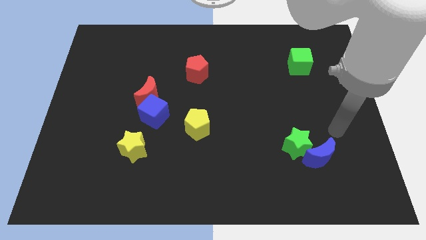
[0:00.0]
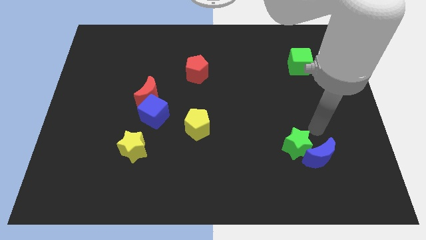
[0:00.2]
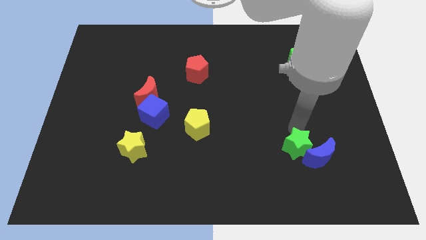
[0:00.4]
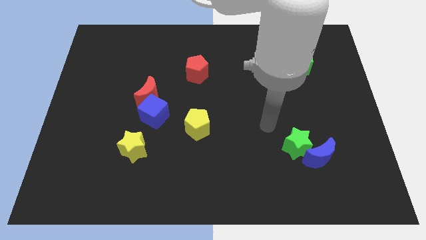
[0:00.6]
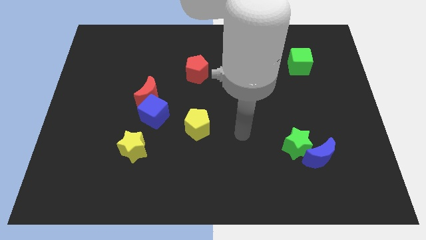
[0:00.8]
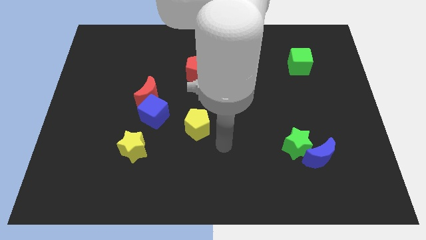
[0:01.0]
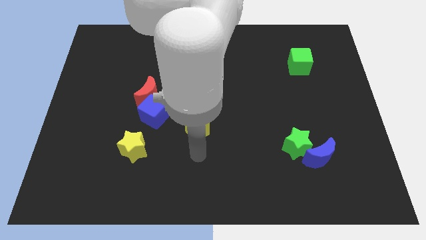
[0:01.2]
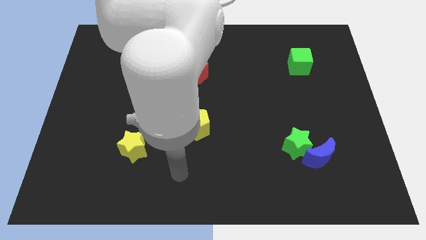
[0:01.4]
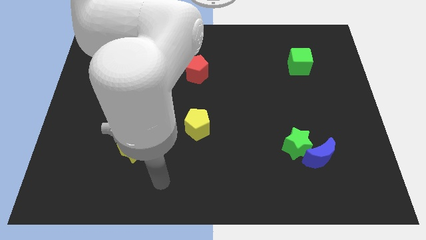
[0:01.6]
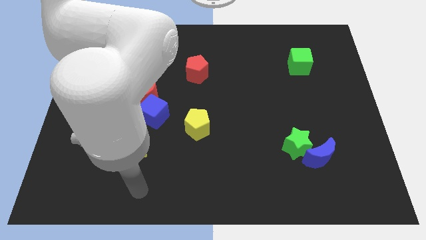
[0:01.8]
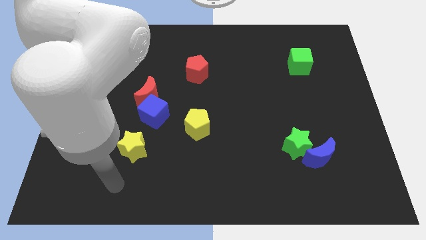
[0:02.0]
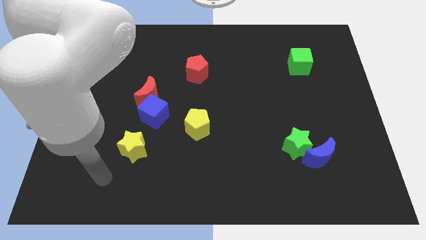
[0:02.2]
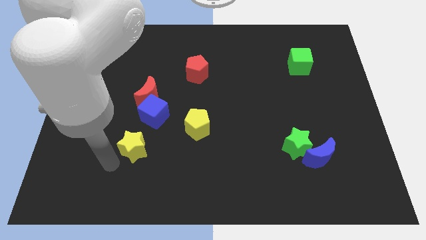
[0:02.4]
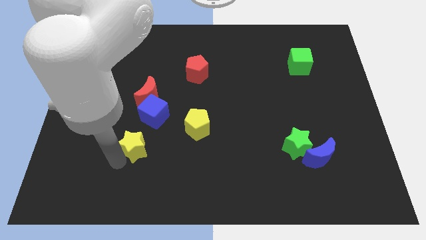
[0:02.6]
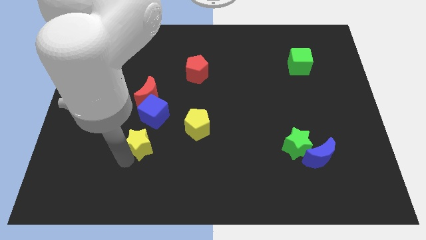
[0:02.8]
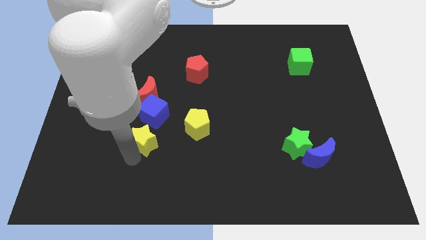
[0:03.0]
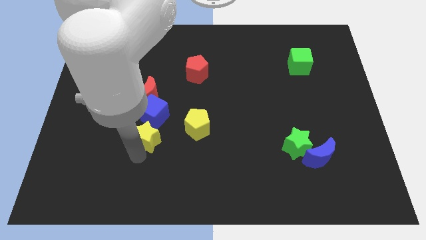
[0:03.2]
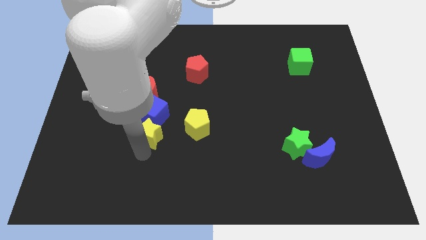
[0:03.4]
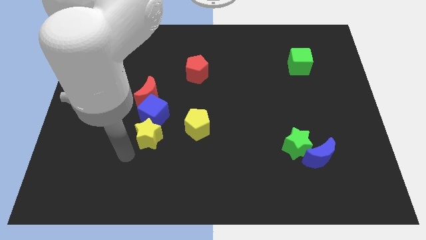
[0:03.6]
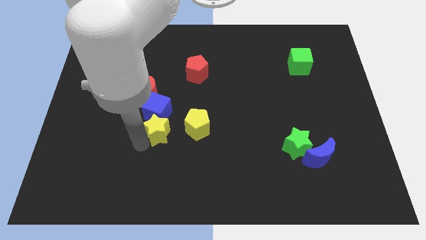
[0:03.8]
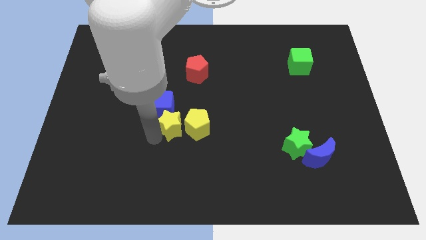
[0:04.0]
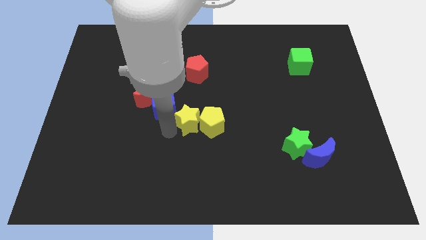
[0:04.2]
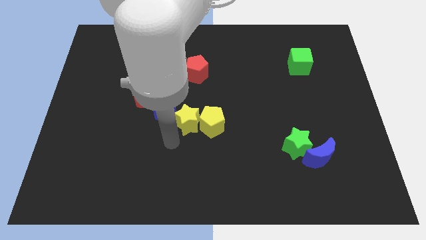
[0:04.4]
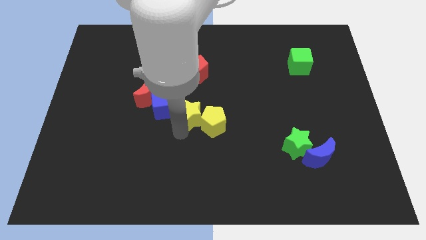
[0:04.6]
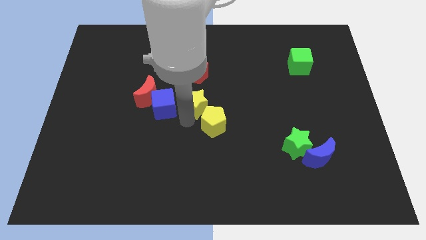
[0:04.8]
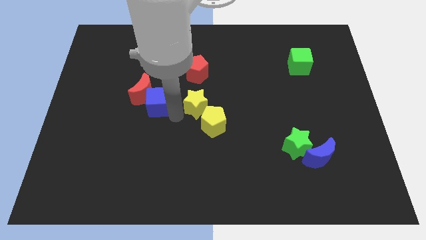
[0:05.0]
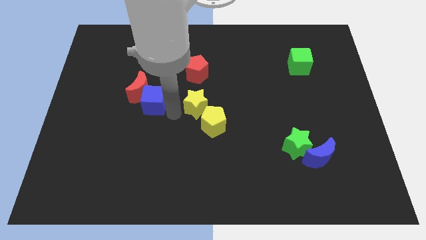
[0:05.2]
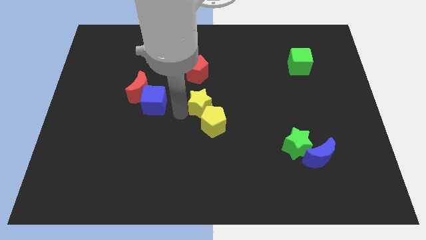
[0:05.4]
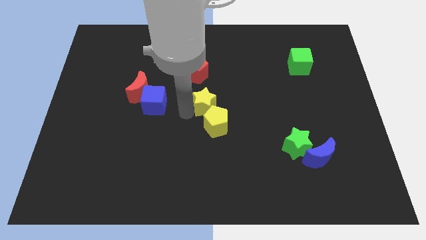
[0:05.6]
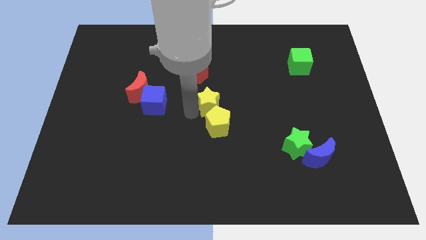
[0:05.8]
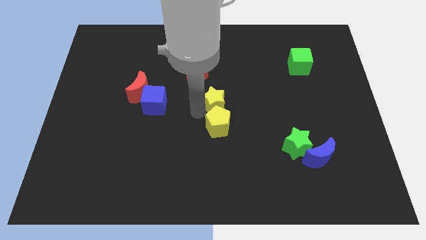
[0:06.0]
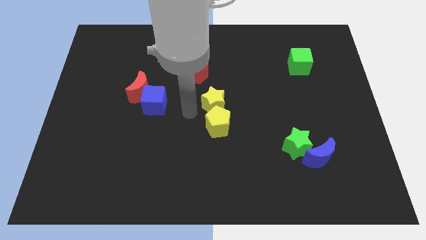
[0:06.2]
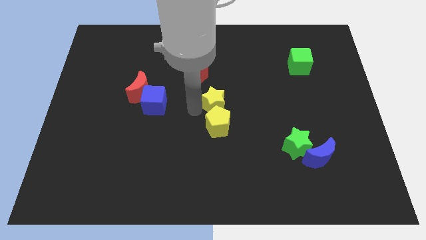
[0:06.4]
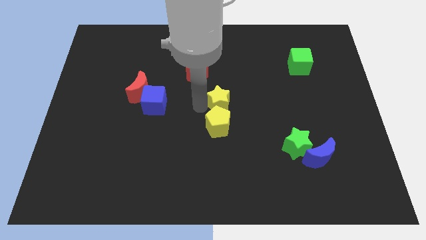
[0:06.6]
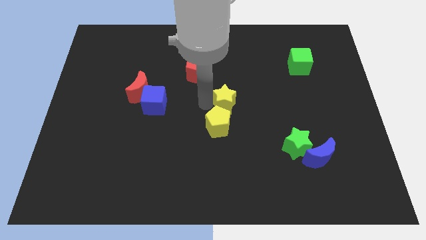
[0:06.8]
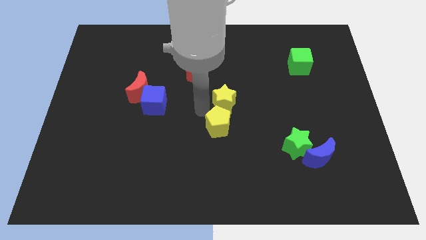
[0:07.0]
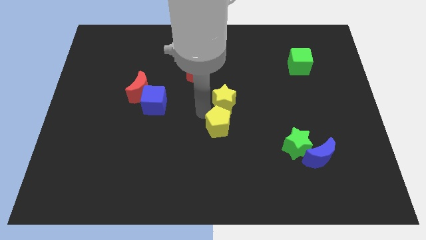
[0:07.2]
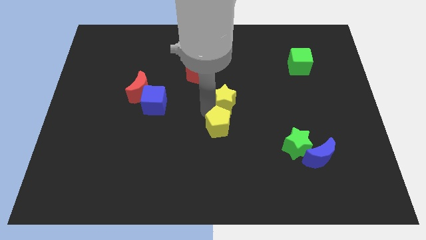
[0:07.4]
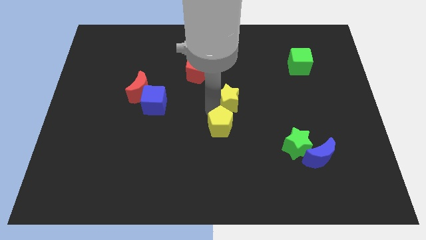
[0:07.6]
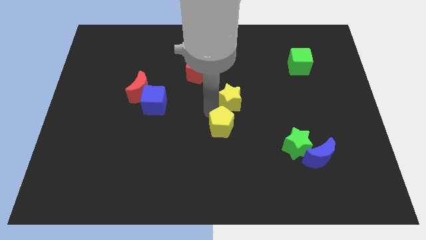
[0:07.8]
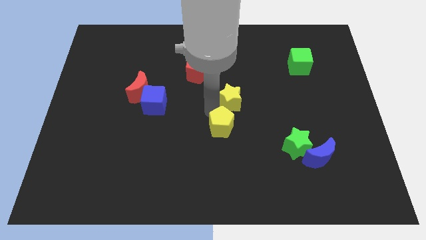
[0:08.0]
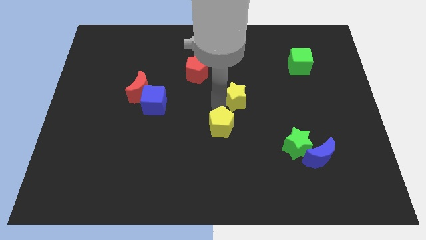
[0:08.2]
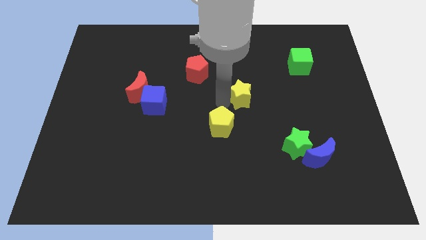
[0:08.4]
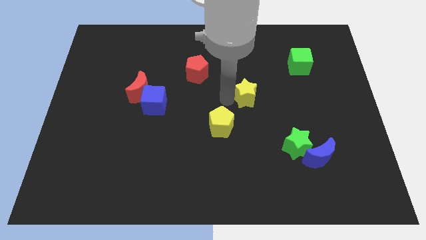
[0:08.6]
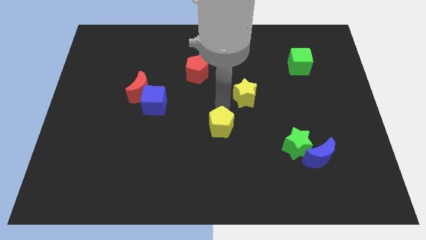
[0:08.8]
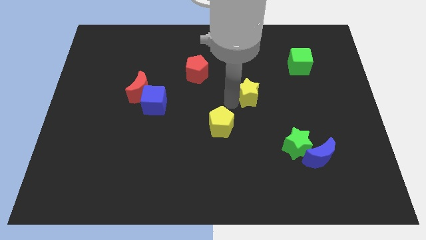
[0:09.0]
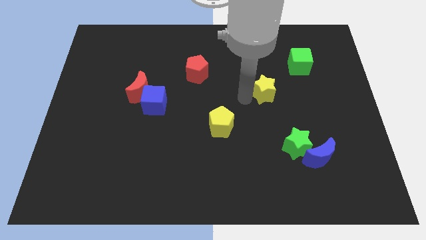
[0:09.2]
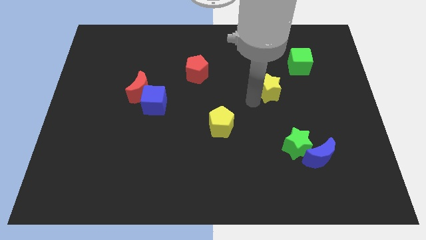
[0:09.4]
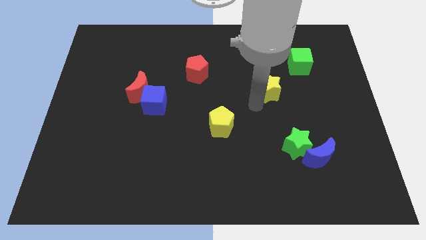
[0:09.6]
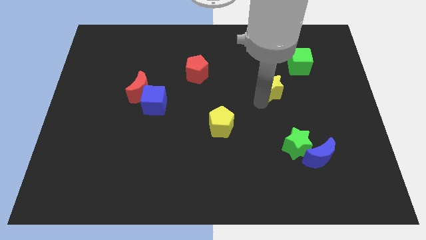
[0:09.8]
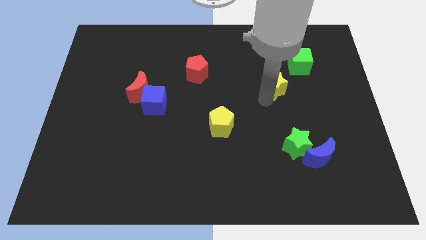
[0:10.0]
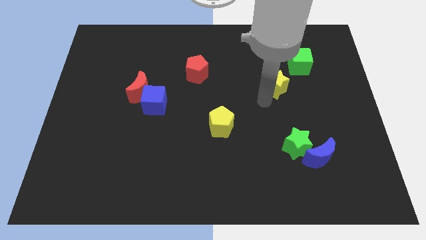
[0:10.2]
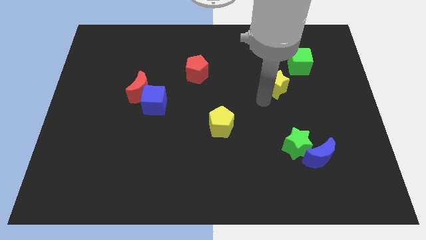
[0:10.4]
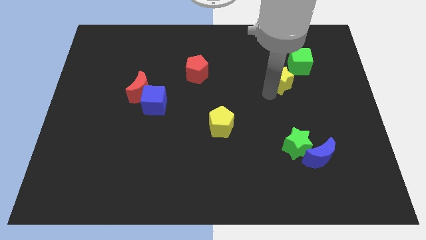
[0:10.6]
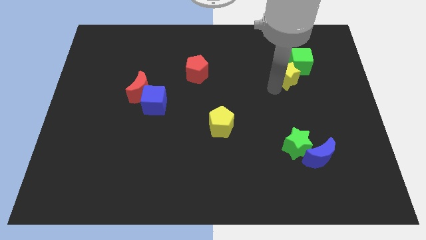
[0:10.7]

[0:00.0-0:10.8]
put the yellow star towards the green cube

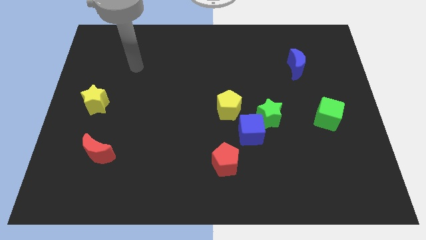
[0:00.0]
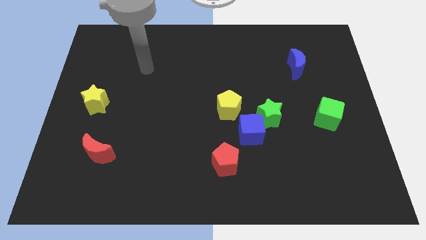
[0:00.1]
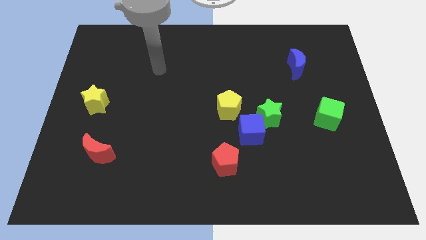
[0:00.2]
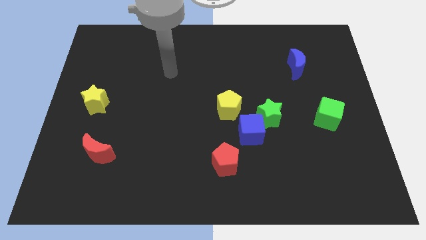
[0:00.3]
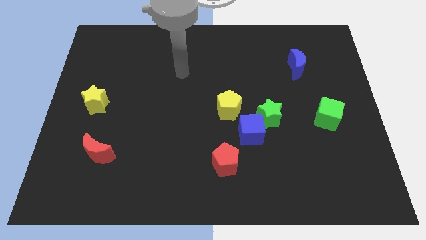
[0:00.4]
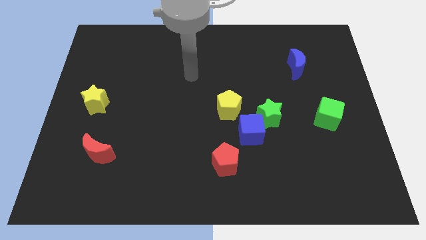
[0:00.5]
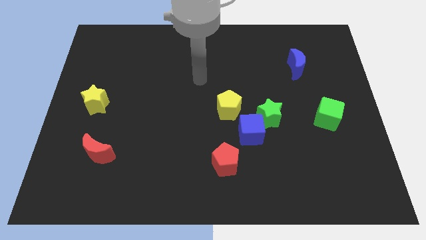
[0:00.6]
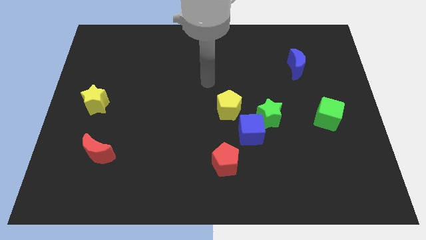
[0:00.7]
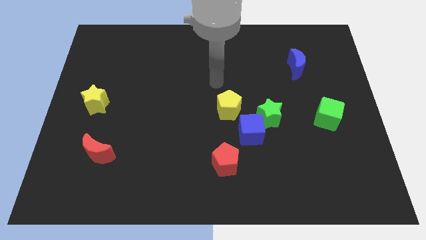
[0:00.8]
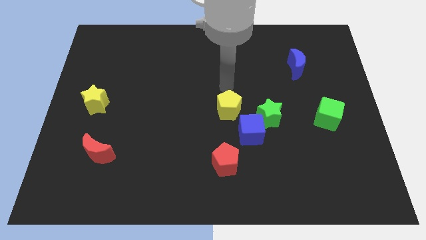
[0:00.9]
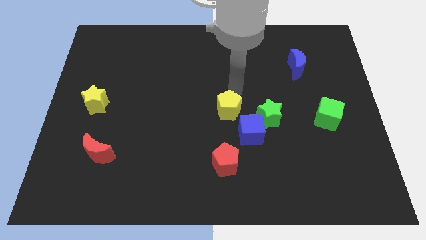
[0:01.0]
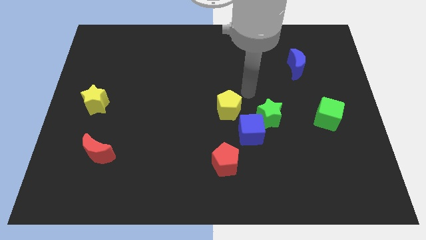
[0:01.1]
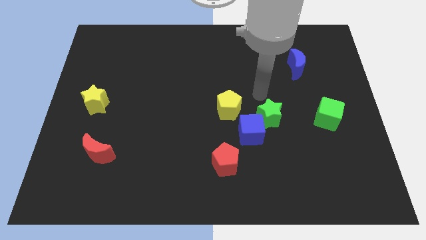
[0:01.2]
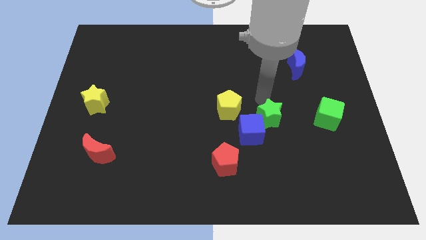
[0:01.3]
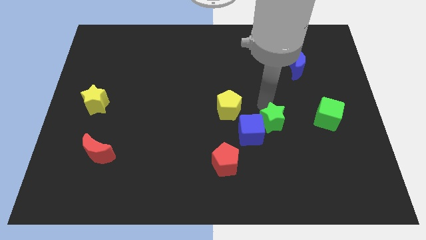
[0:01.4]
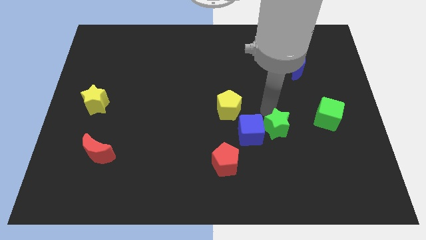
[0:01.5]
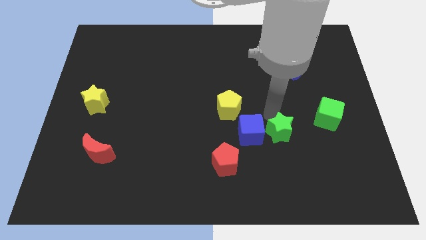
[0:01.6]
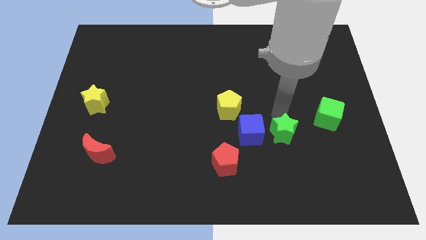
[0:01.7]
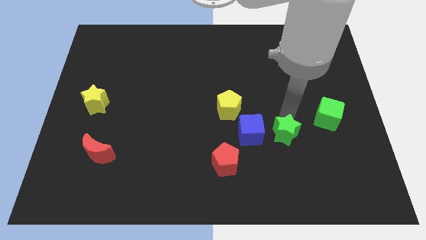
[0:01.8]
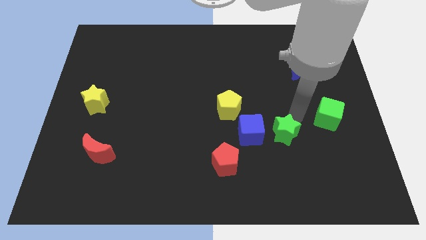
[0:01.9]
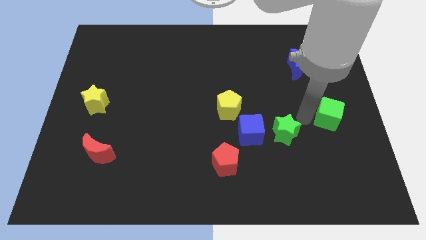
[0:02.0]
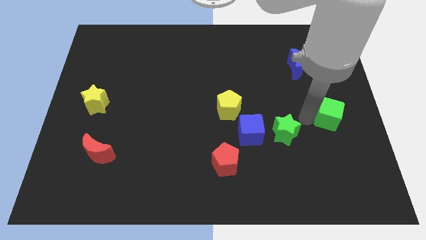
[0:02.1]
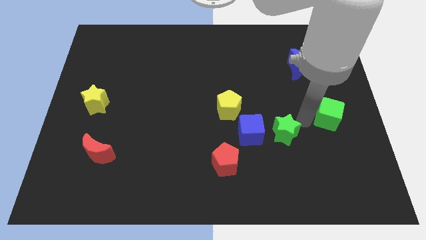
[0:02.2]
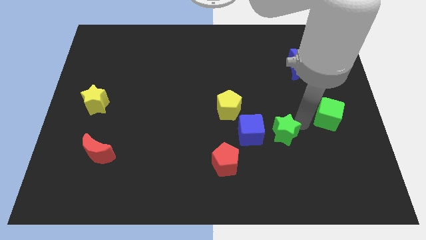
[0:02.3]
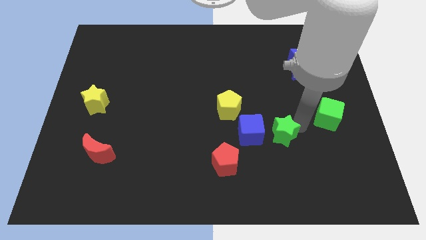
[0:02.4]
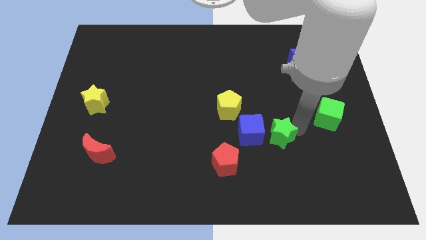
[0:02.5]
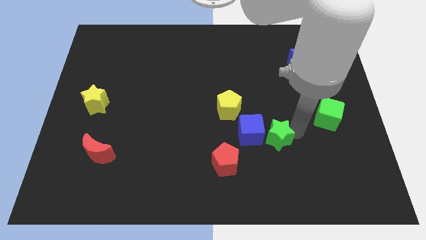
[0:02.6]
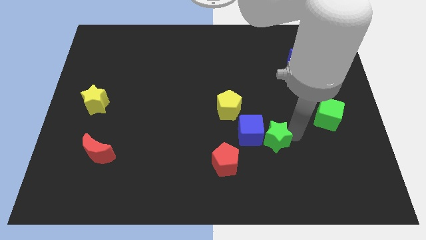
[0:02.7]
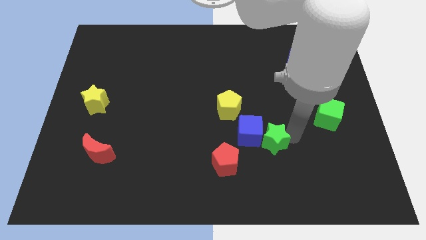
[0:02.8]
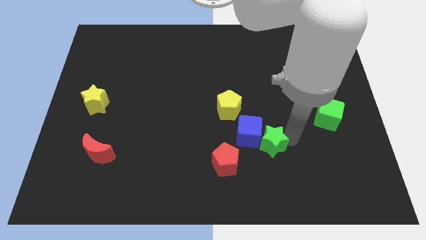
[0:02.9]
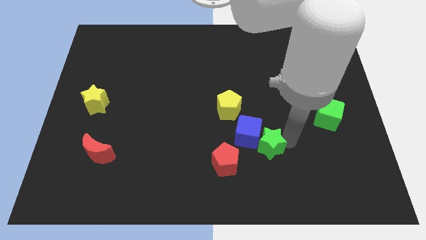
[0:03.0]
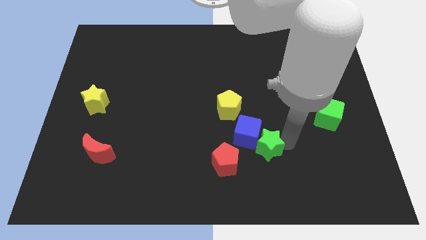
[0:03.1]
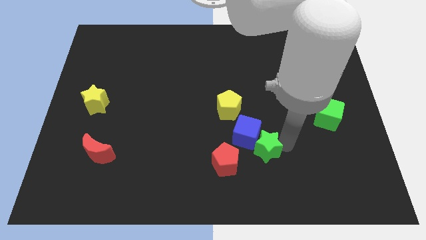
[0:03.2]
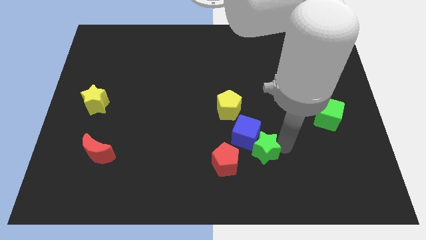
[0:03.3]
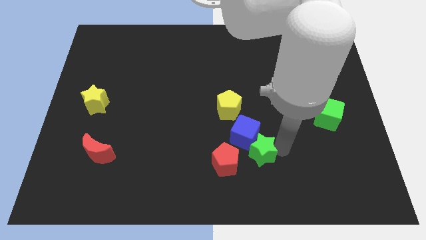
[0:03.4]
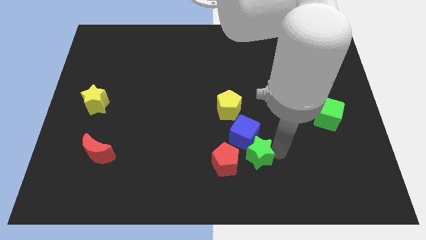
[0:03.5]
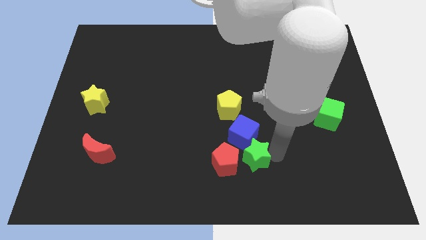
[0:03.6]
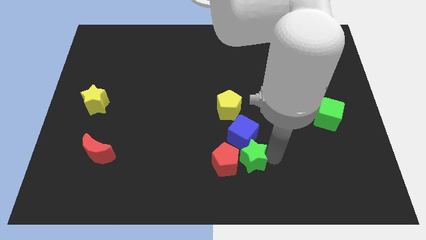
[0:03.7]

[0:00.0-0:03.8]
slide the green star towards the red pentagon
